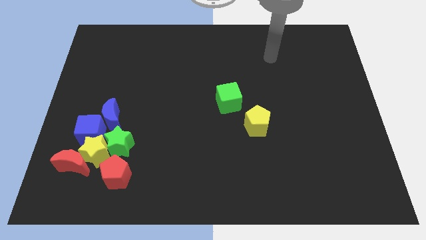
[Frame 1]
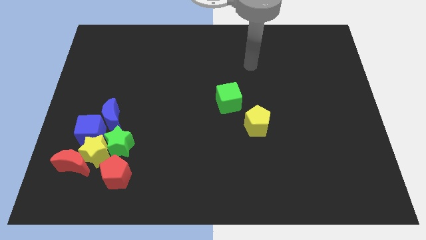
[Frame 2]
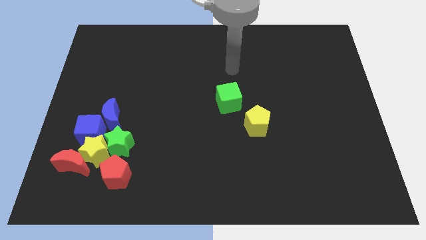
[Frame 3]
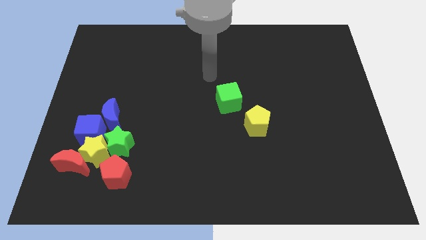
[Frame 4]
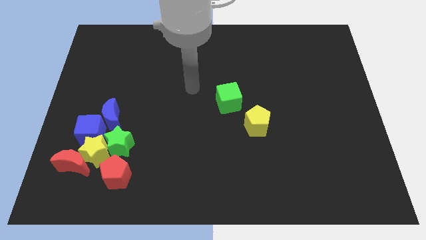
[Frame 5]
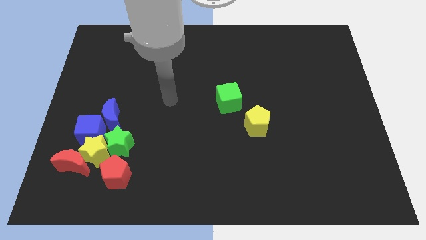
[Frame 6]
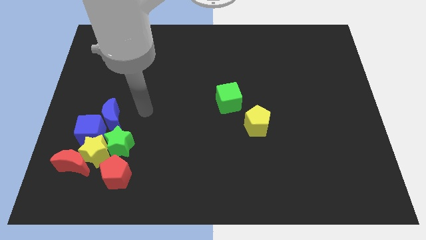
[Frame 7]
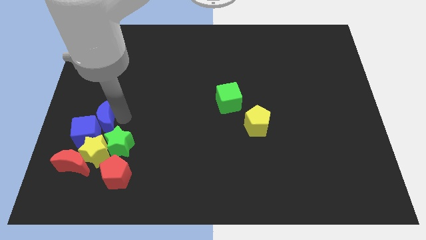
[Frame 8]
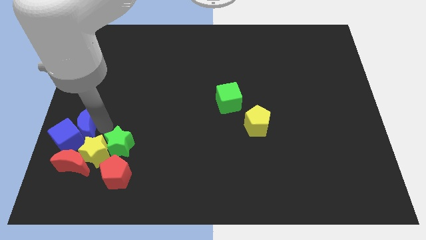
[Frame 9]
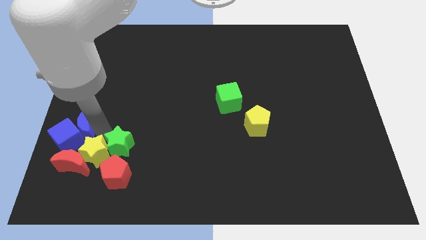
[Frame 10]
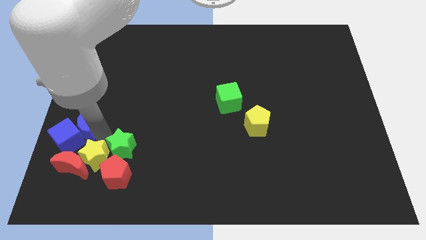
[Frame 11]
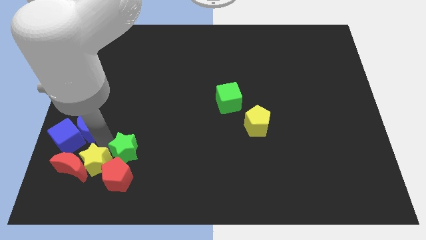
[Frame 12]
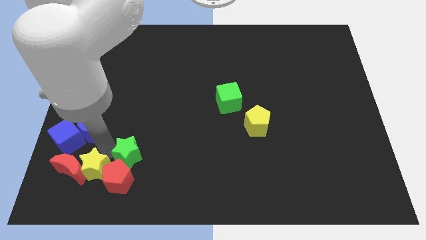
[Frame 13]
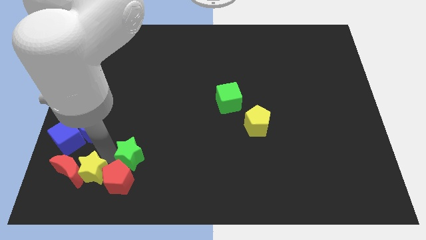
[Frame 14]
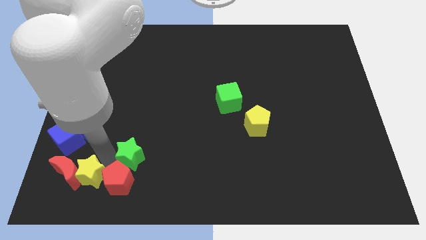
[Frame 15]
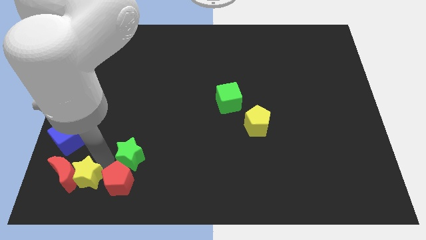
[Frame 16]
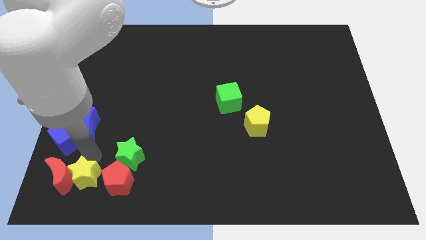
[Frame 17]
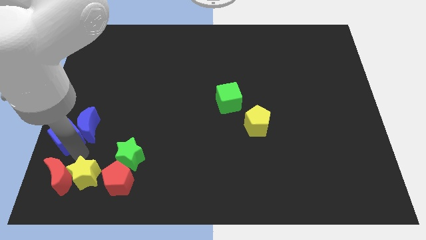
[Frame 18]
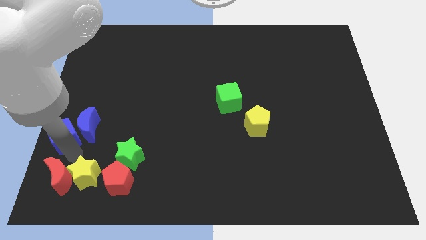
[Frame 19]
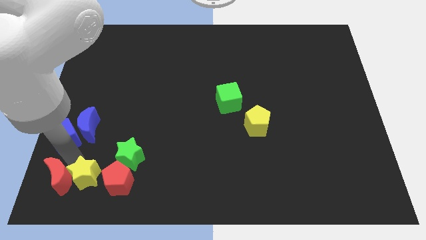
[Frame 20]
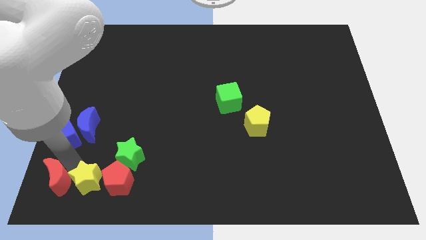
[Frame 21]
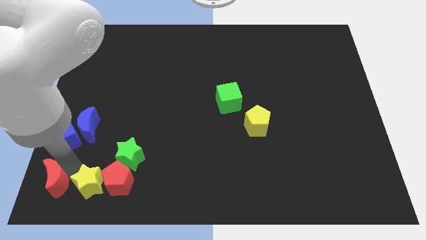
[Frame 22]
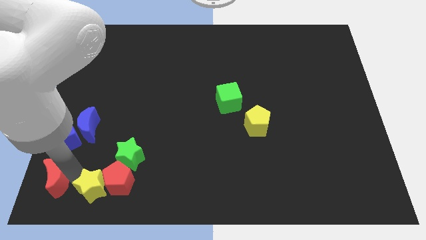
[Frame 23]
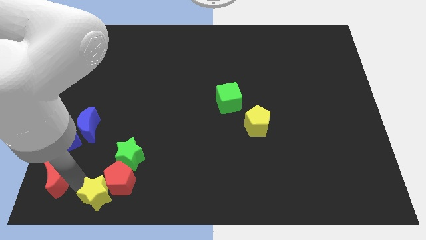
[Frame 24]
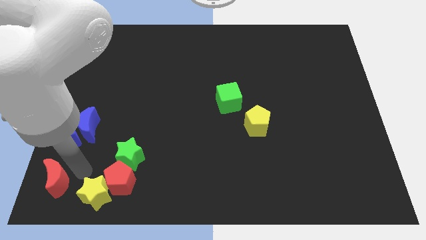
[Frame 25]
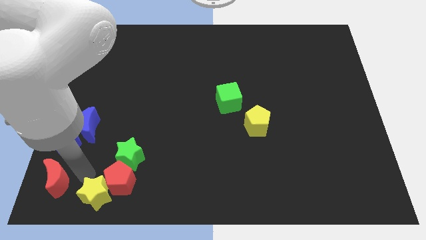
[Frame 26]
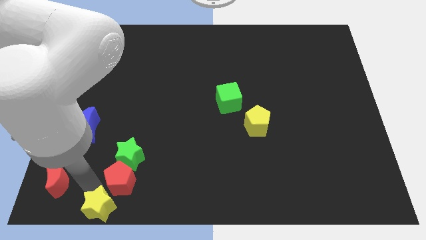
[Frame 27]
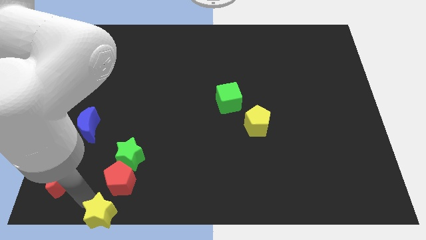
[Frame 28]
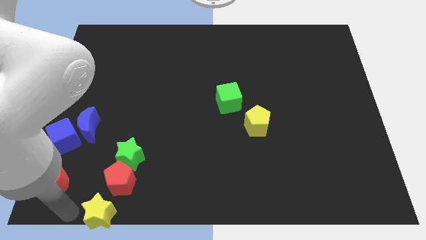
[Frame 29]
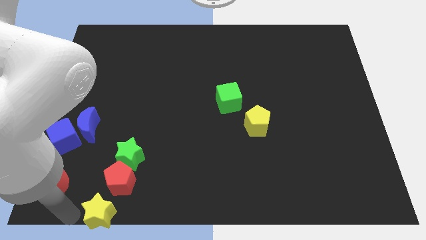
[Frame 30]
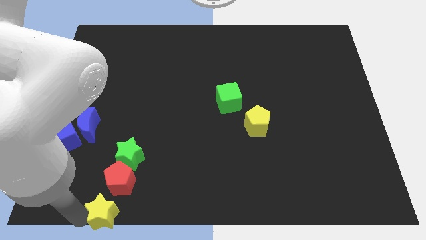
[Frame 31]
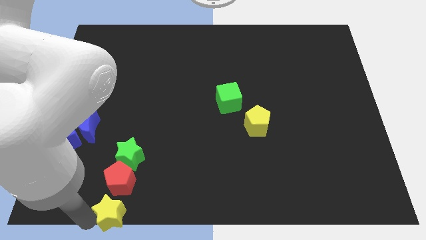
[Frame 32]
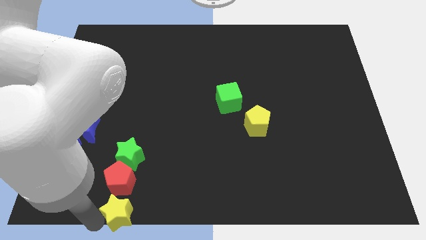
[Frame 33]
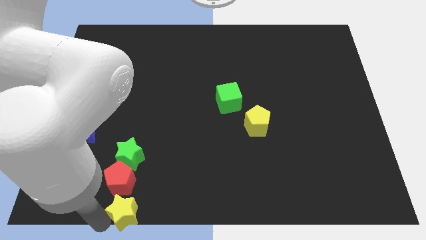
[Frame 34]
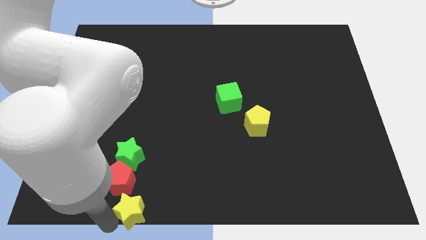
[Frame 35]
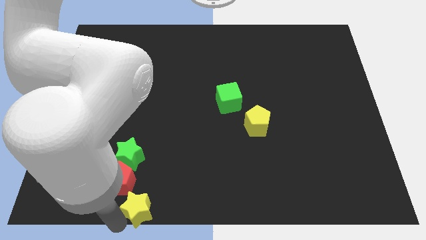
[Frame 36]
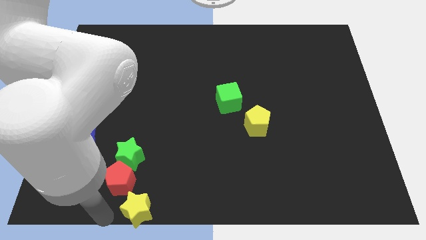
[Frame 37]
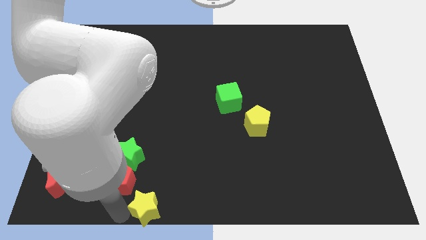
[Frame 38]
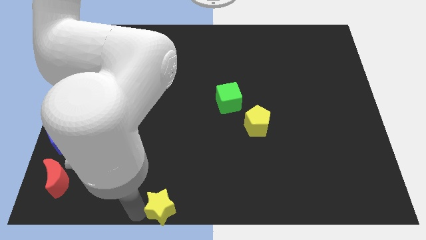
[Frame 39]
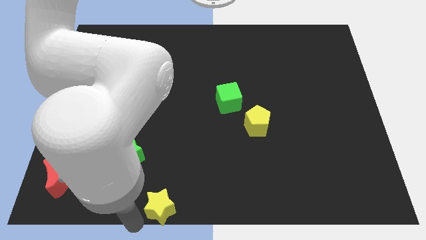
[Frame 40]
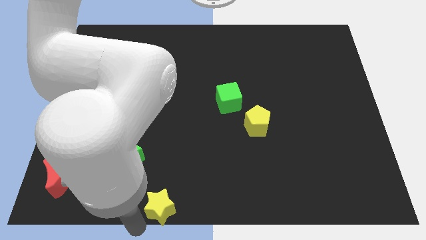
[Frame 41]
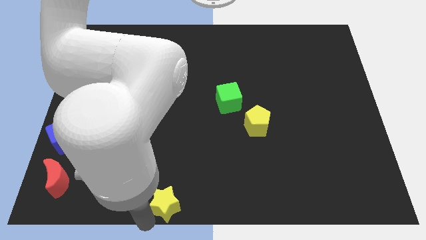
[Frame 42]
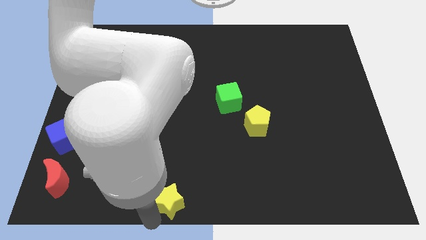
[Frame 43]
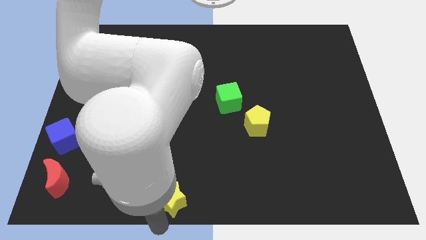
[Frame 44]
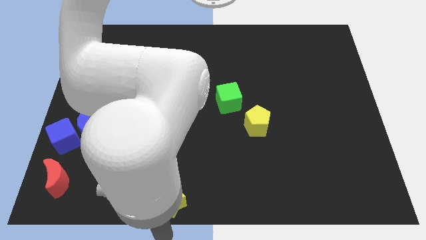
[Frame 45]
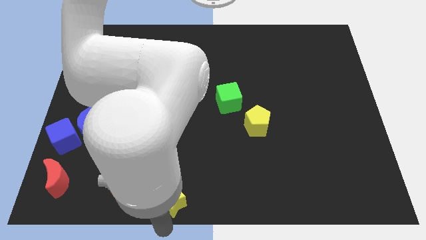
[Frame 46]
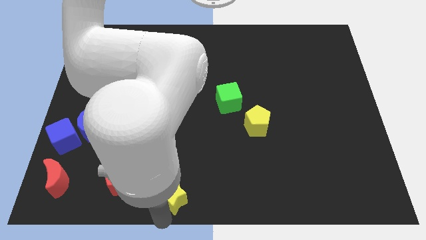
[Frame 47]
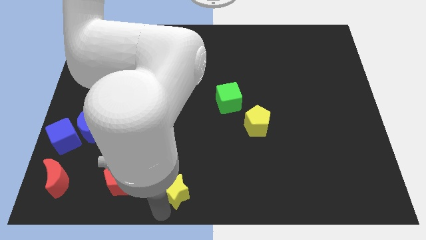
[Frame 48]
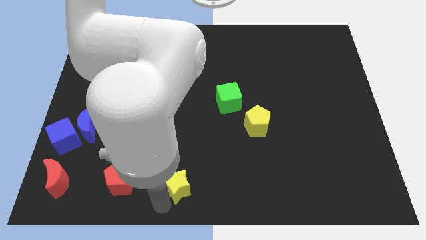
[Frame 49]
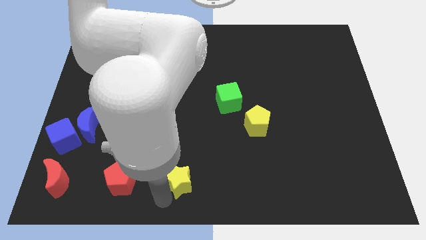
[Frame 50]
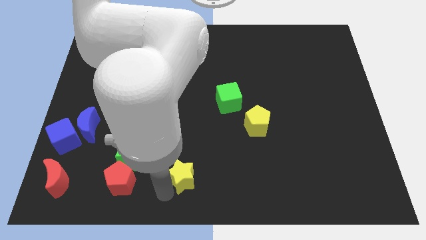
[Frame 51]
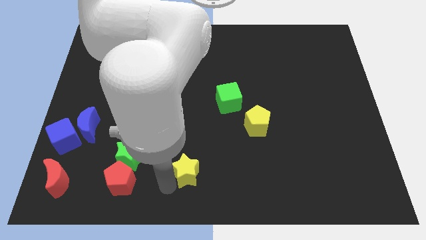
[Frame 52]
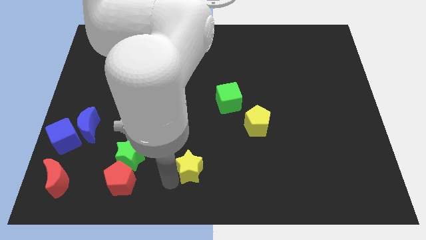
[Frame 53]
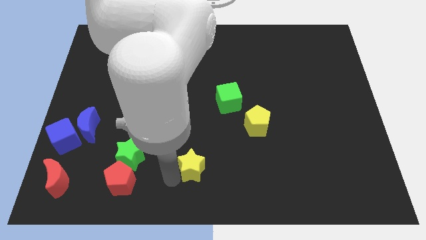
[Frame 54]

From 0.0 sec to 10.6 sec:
slide the yellow star to the right

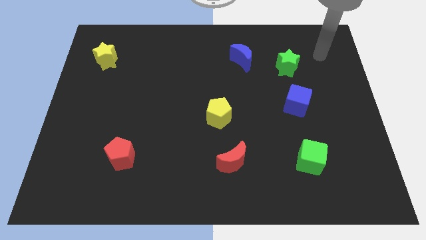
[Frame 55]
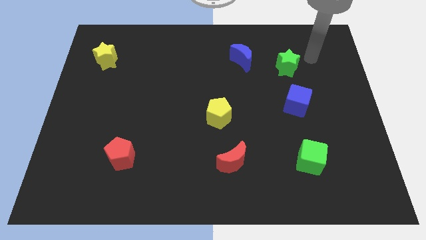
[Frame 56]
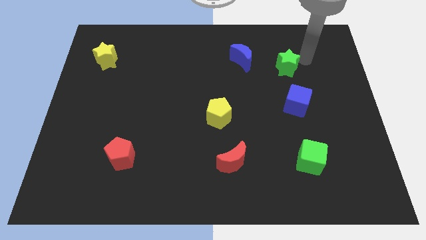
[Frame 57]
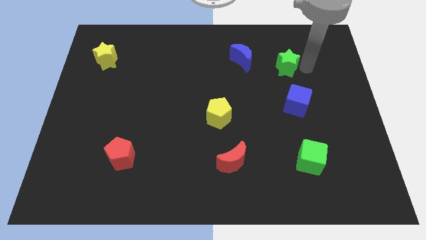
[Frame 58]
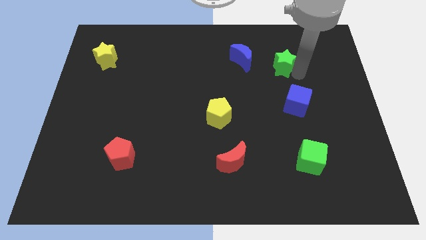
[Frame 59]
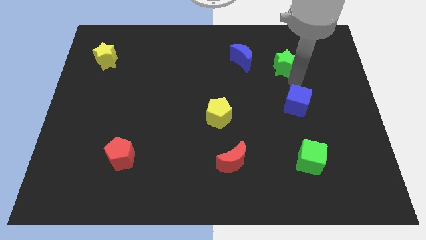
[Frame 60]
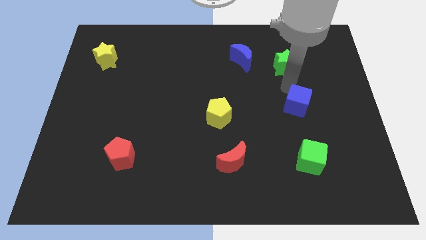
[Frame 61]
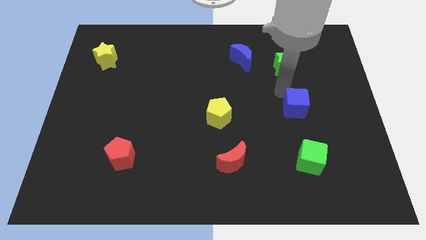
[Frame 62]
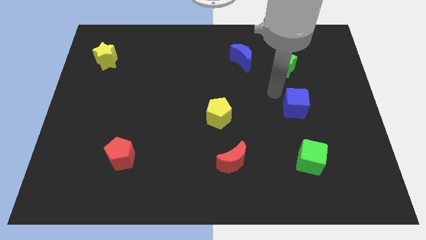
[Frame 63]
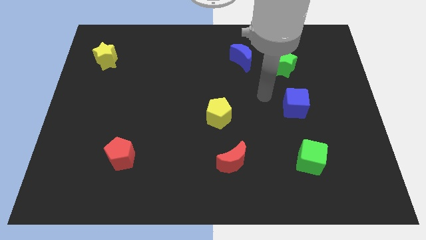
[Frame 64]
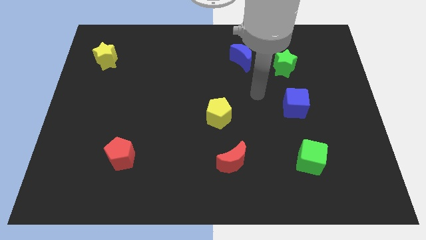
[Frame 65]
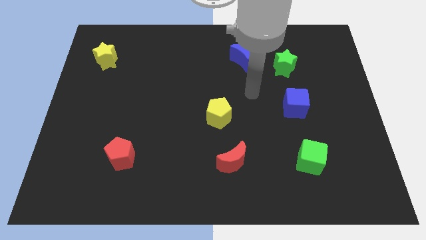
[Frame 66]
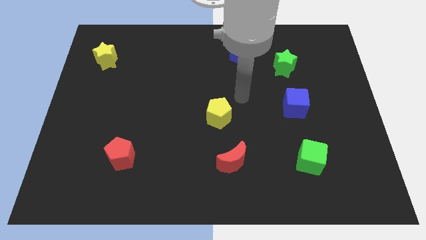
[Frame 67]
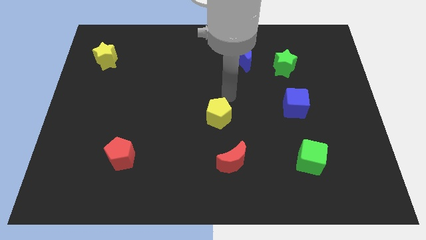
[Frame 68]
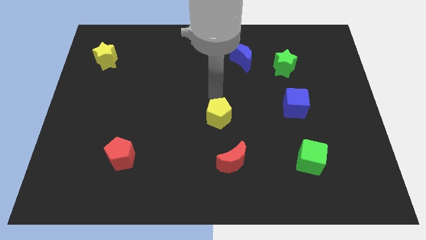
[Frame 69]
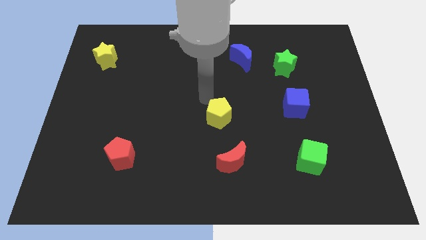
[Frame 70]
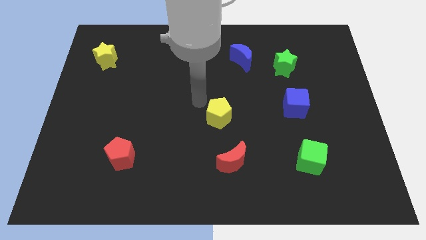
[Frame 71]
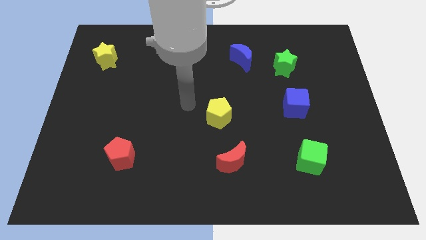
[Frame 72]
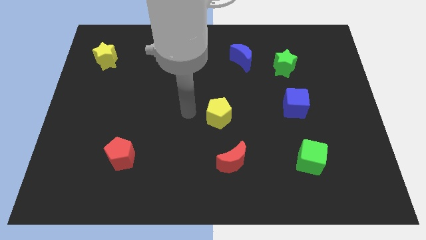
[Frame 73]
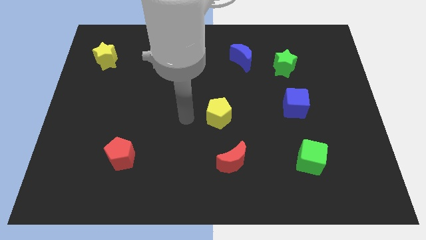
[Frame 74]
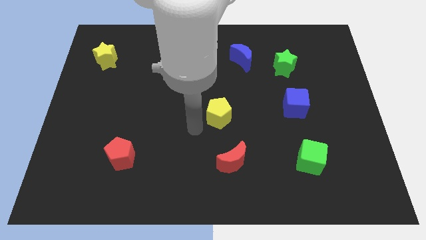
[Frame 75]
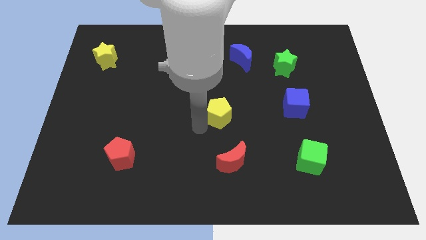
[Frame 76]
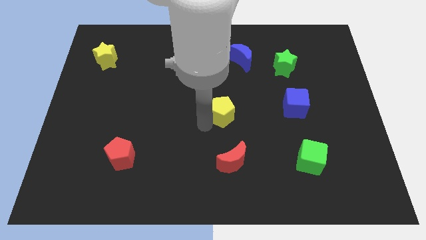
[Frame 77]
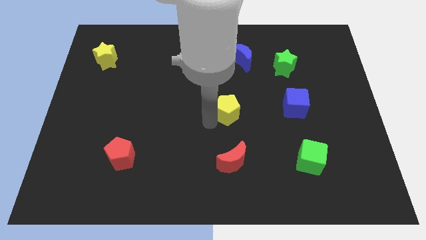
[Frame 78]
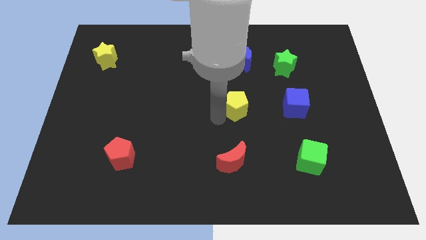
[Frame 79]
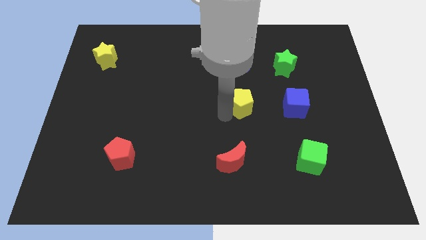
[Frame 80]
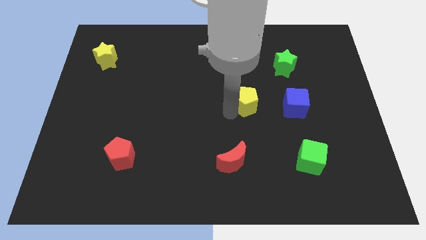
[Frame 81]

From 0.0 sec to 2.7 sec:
slide the yellow pentagon a bit up and right
